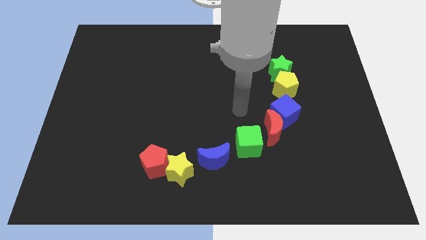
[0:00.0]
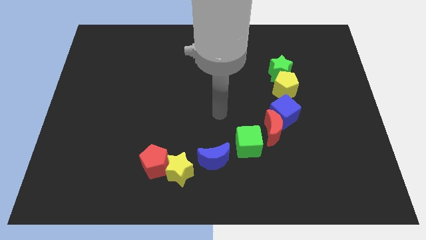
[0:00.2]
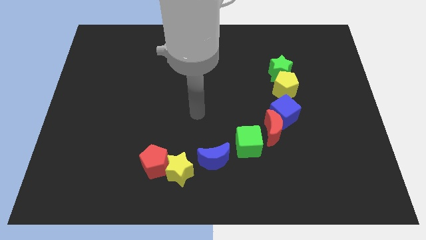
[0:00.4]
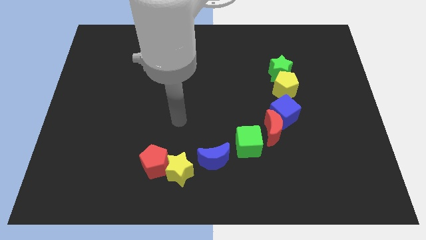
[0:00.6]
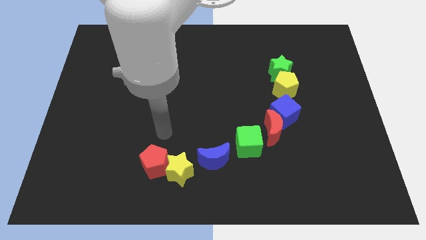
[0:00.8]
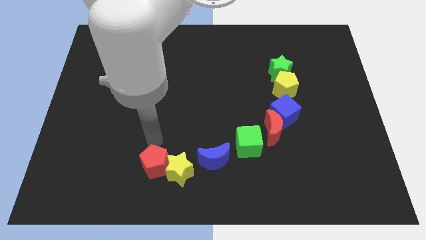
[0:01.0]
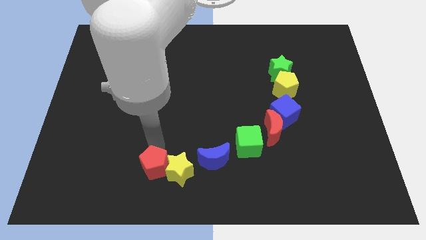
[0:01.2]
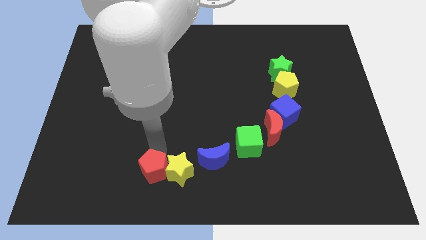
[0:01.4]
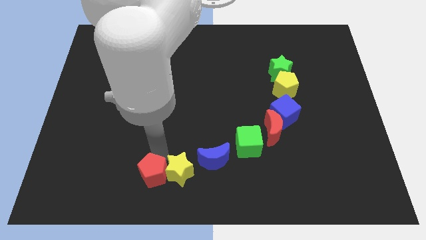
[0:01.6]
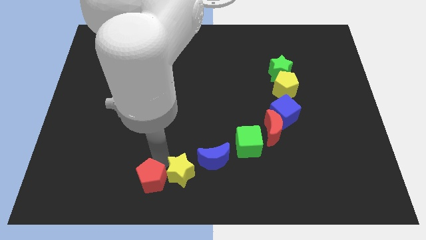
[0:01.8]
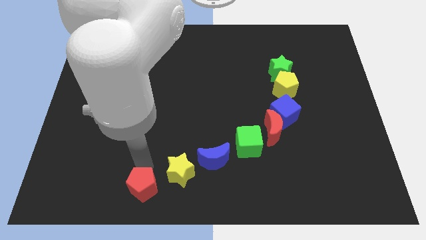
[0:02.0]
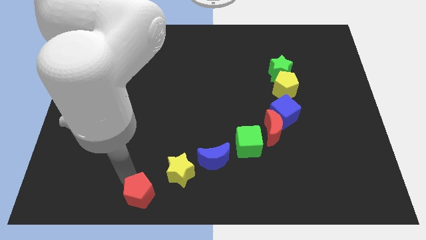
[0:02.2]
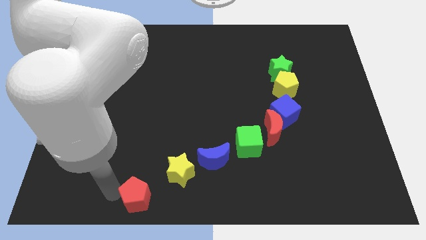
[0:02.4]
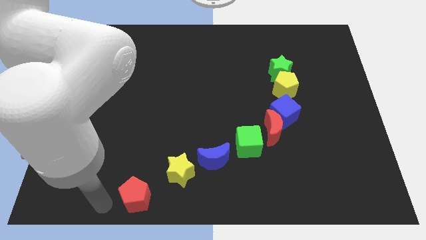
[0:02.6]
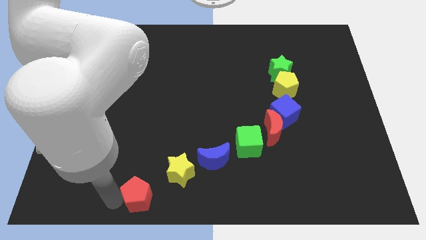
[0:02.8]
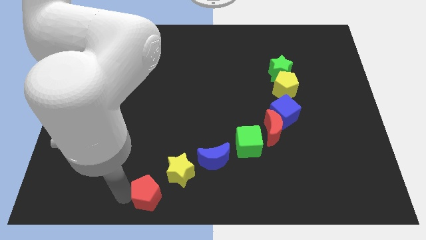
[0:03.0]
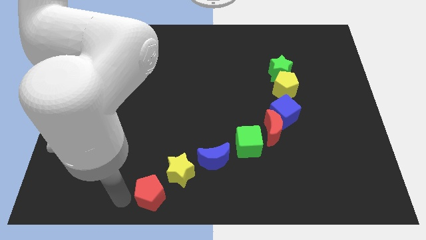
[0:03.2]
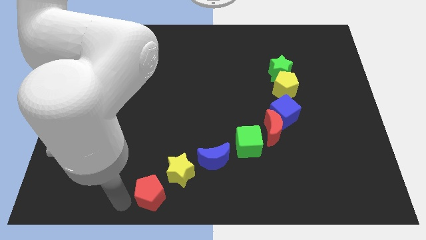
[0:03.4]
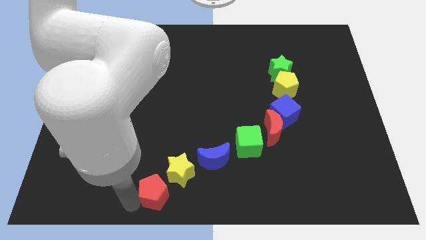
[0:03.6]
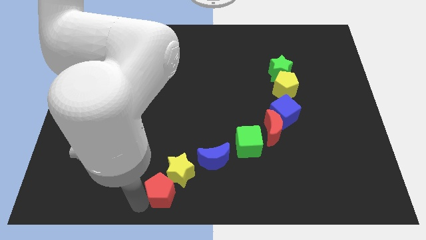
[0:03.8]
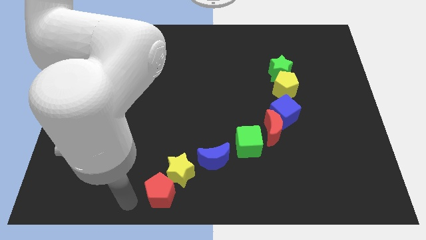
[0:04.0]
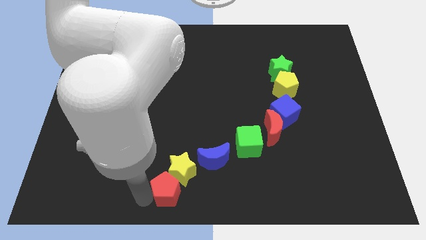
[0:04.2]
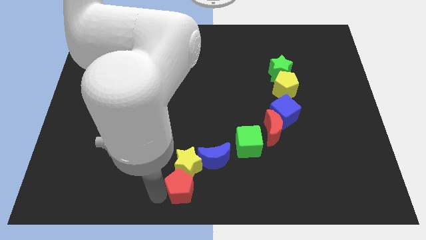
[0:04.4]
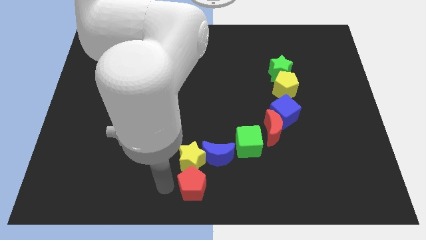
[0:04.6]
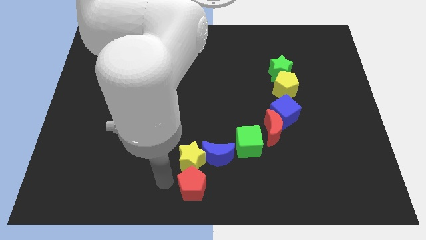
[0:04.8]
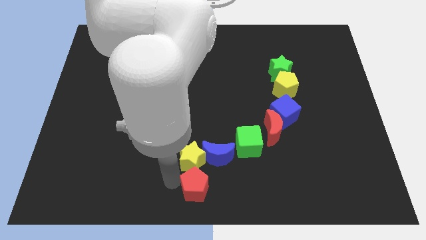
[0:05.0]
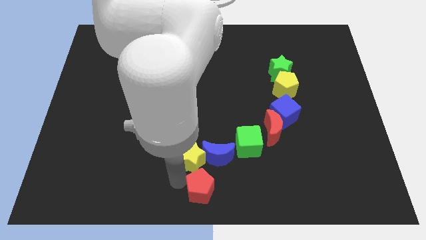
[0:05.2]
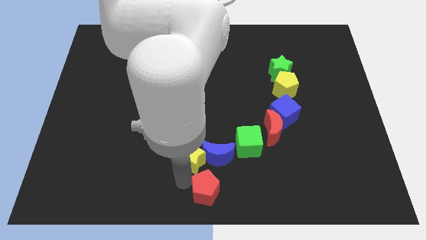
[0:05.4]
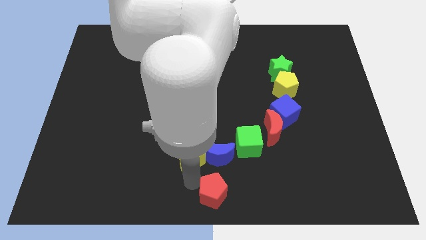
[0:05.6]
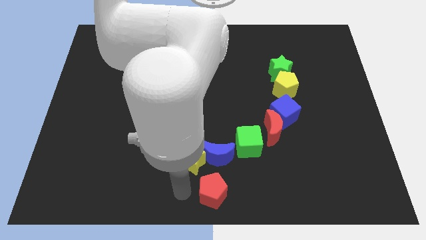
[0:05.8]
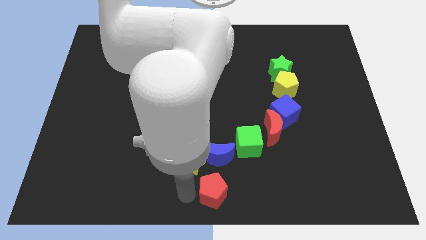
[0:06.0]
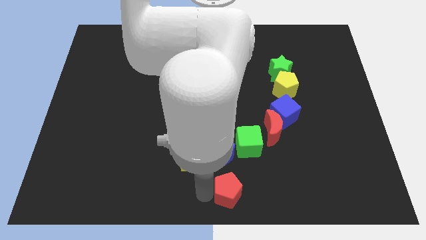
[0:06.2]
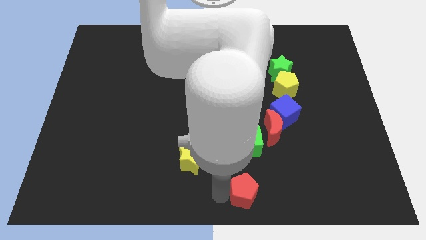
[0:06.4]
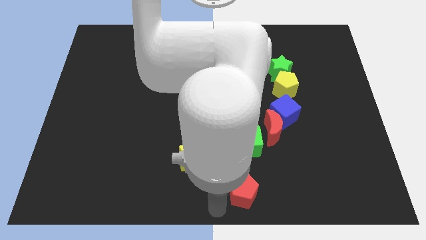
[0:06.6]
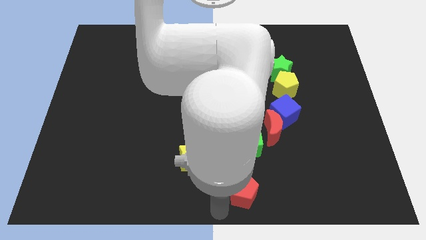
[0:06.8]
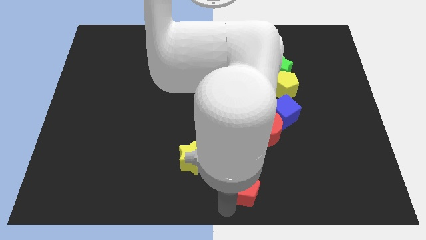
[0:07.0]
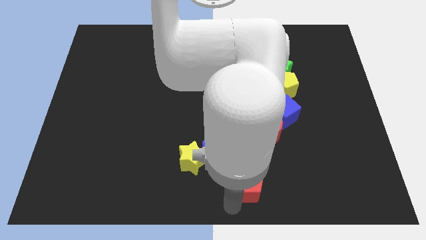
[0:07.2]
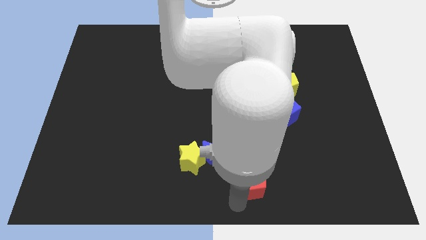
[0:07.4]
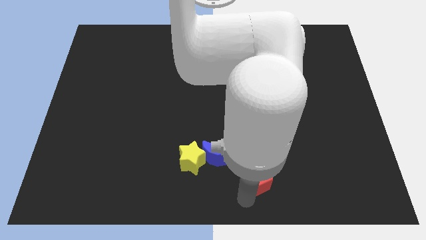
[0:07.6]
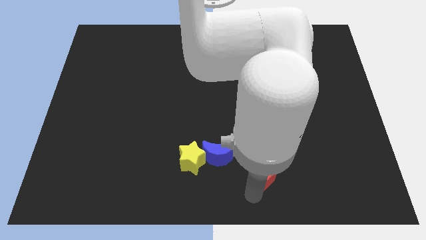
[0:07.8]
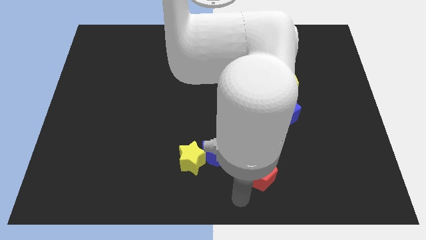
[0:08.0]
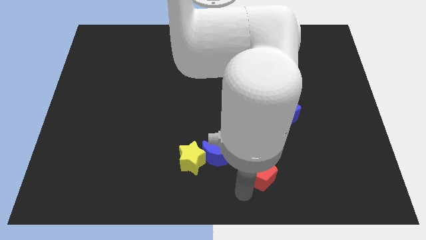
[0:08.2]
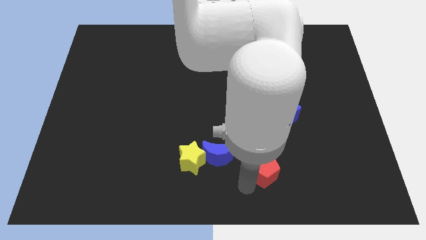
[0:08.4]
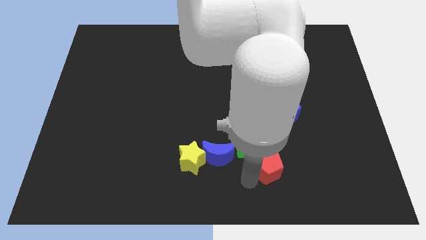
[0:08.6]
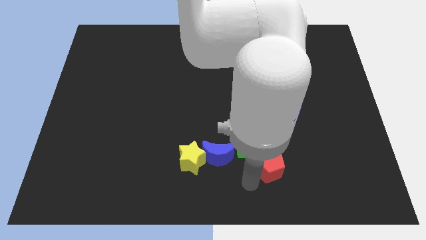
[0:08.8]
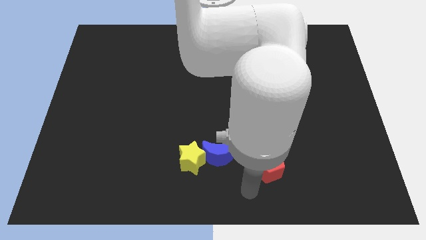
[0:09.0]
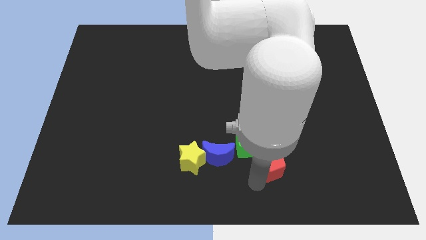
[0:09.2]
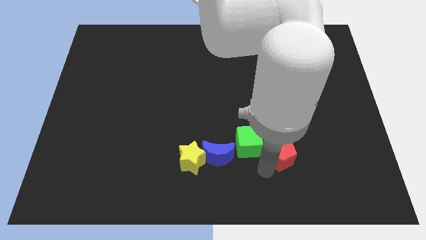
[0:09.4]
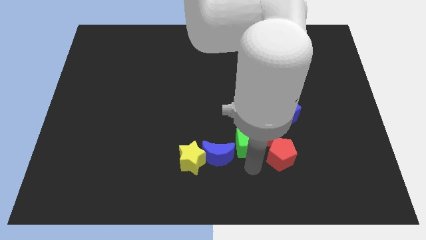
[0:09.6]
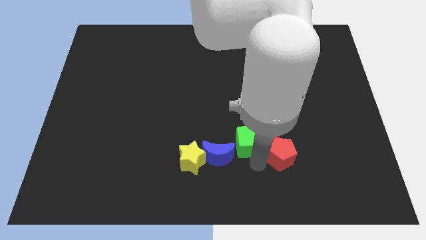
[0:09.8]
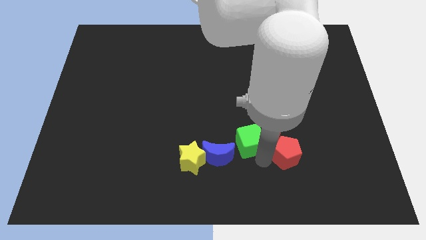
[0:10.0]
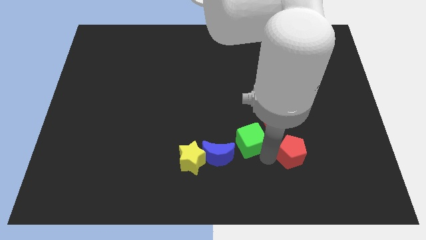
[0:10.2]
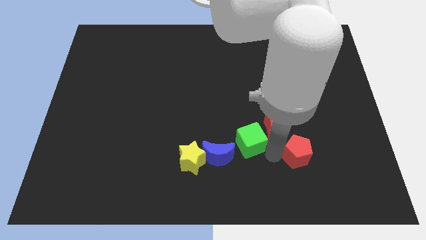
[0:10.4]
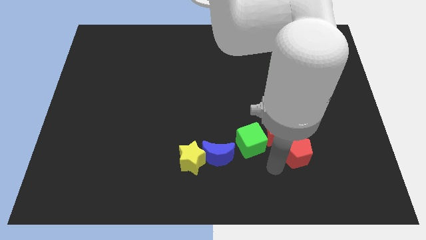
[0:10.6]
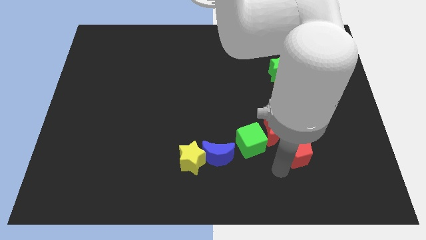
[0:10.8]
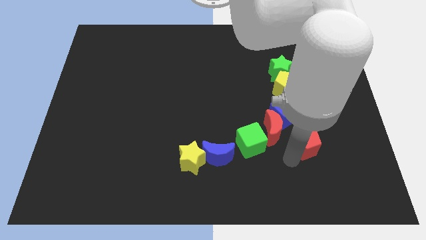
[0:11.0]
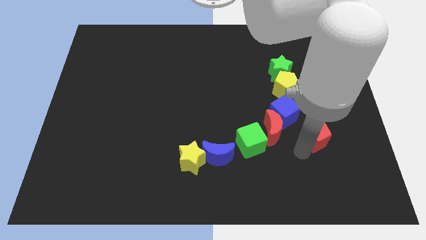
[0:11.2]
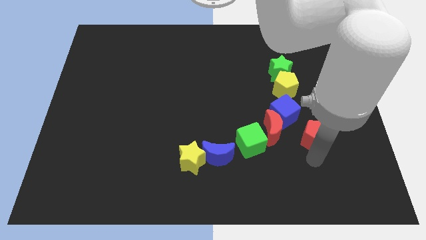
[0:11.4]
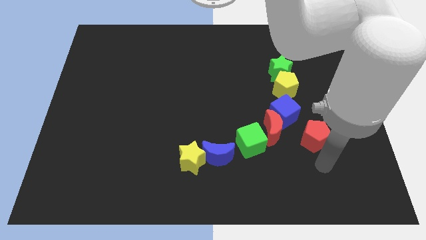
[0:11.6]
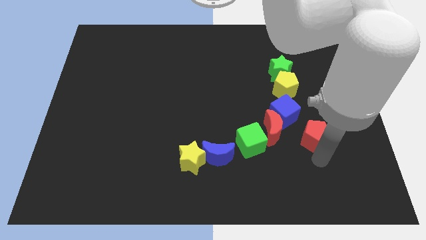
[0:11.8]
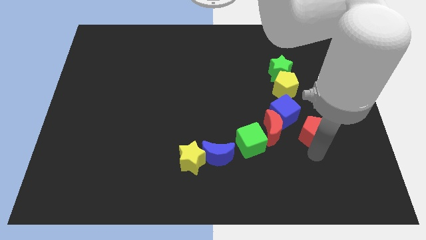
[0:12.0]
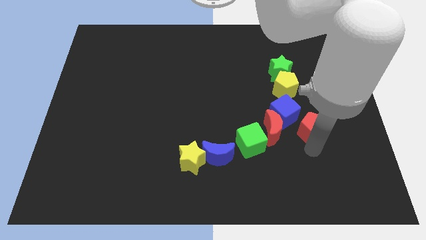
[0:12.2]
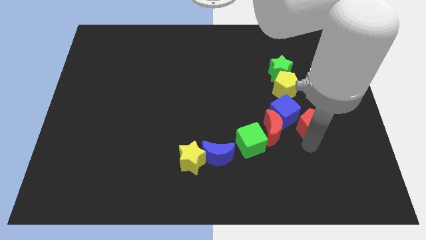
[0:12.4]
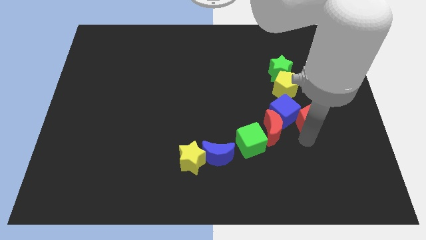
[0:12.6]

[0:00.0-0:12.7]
move the red pentagon diagonally down and to the right of the yellow pentagon

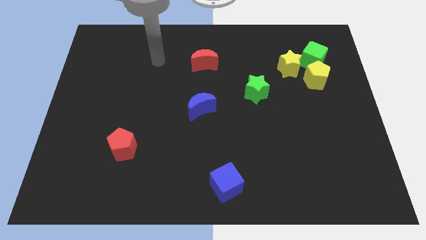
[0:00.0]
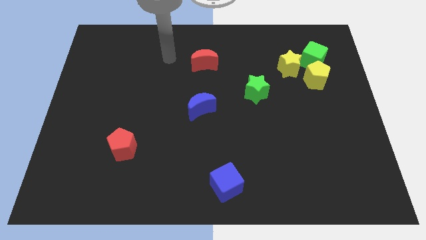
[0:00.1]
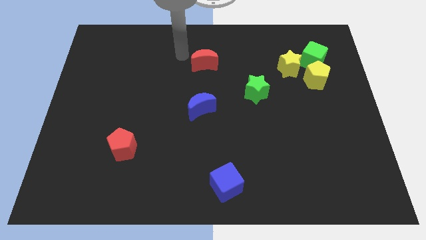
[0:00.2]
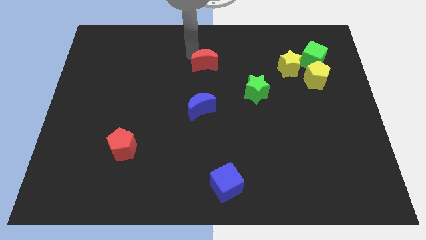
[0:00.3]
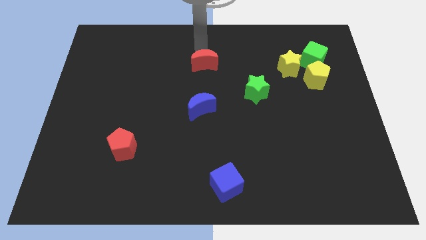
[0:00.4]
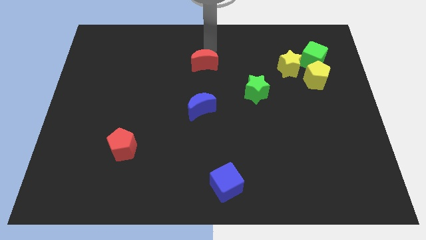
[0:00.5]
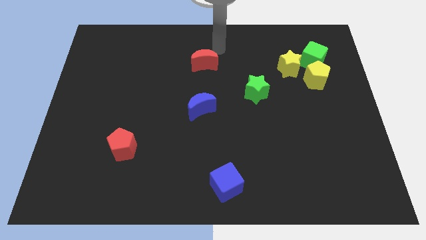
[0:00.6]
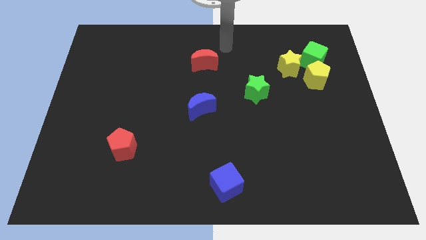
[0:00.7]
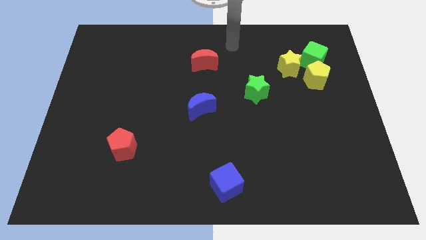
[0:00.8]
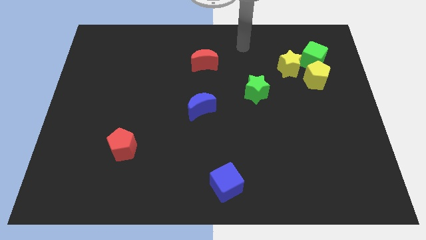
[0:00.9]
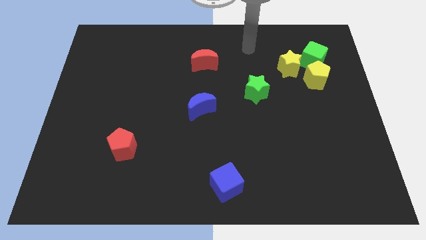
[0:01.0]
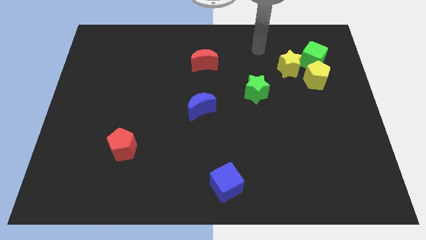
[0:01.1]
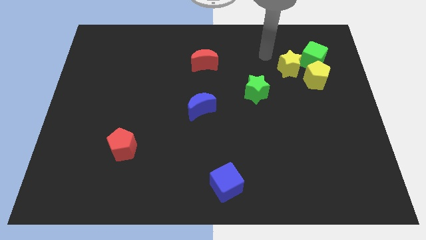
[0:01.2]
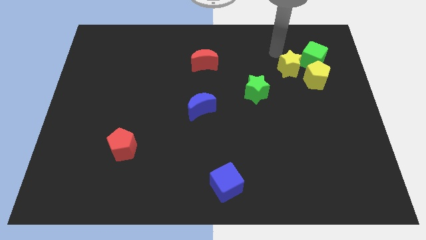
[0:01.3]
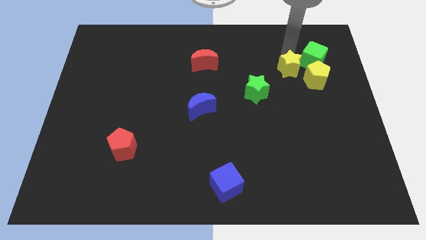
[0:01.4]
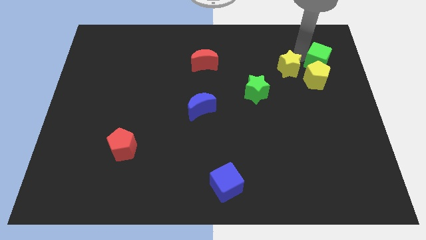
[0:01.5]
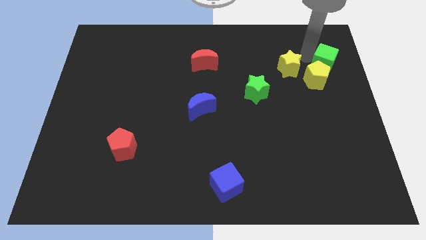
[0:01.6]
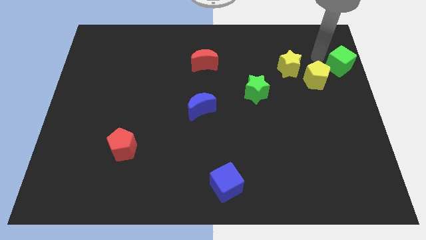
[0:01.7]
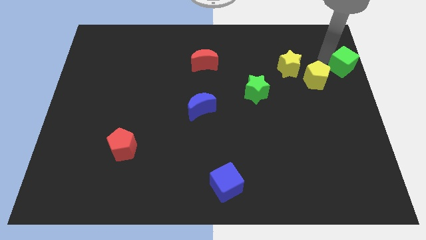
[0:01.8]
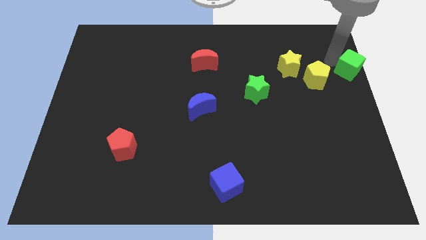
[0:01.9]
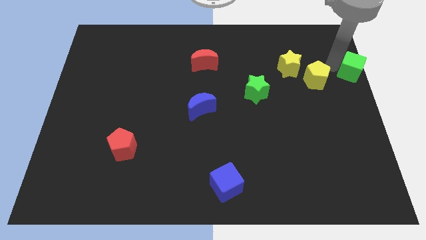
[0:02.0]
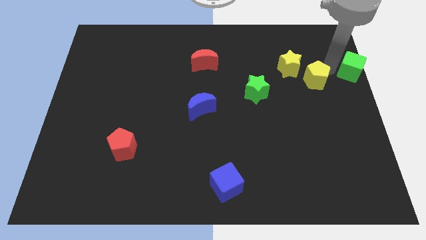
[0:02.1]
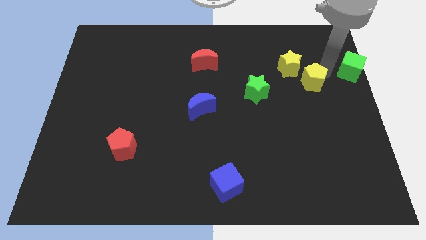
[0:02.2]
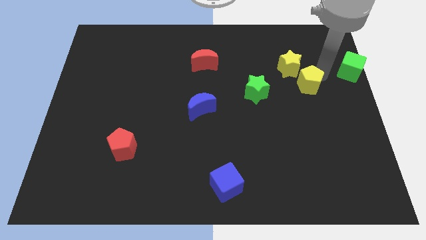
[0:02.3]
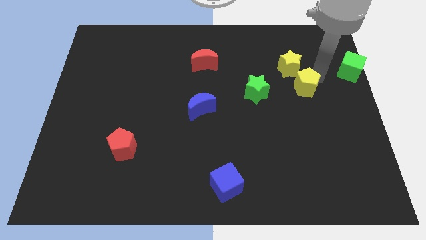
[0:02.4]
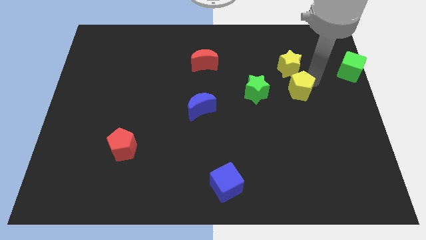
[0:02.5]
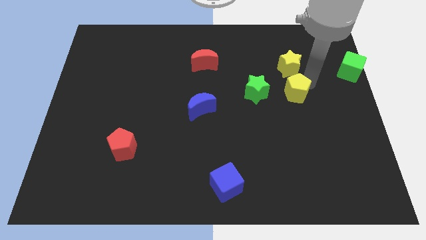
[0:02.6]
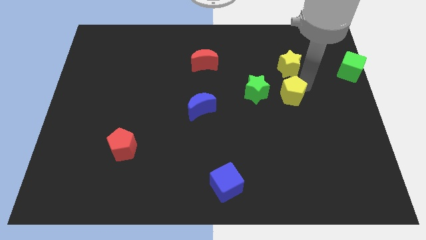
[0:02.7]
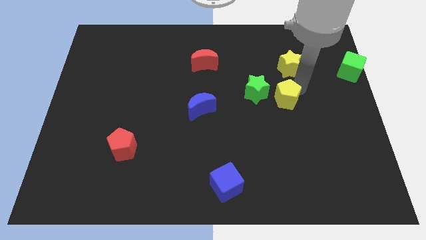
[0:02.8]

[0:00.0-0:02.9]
put the yellow pentagon diagonally down and to the right of the green star
